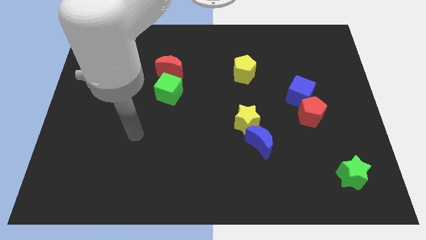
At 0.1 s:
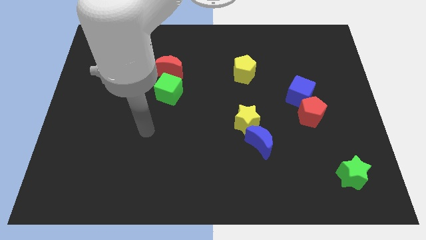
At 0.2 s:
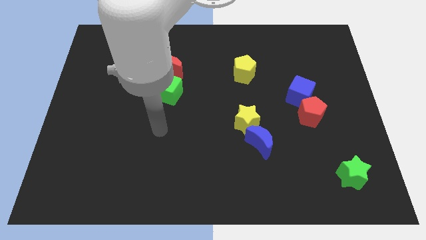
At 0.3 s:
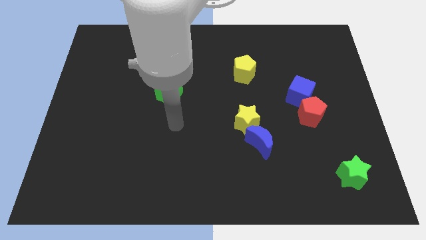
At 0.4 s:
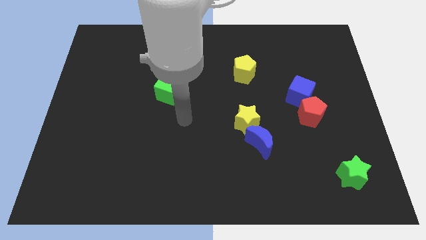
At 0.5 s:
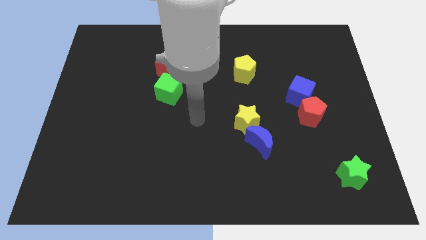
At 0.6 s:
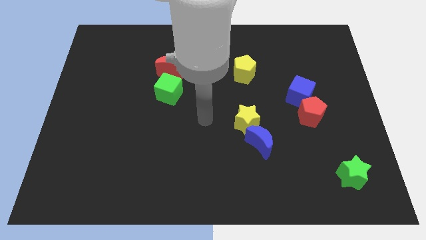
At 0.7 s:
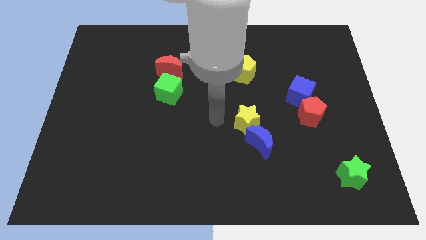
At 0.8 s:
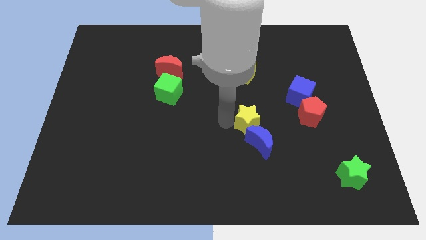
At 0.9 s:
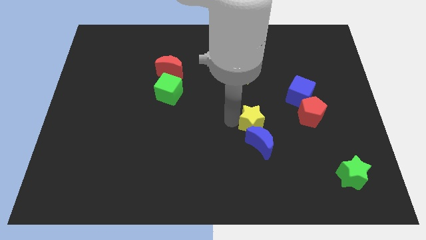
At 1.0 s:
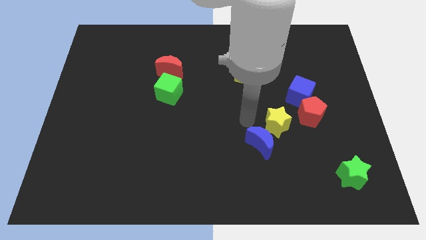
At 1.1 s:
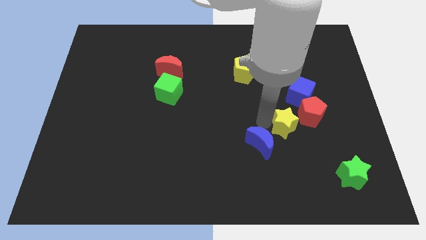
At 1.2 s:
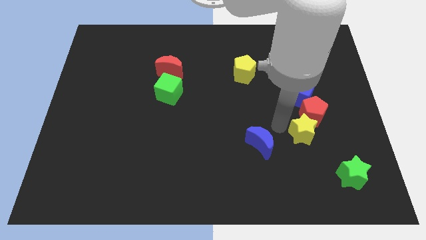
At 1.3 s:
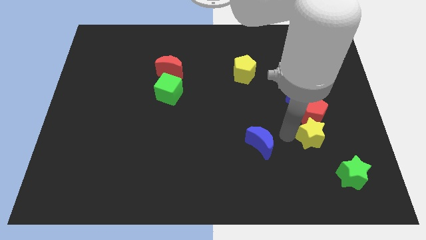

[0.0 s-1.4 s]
move the blue moon away from the yellow star

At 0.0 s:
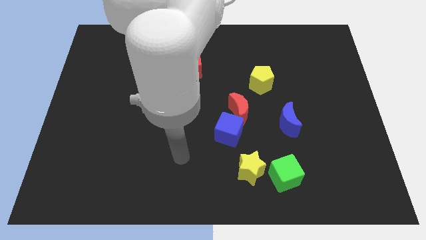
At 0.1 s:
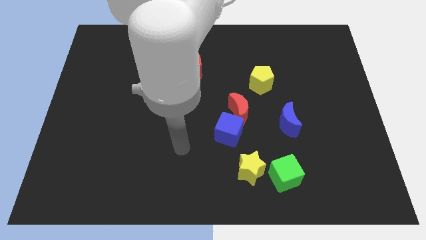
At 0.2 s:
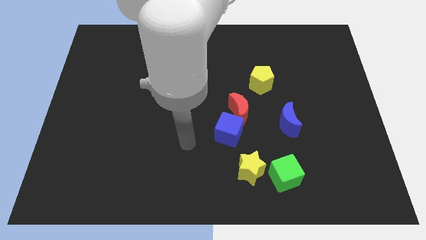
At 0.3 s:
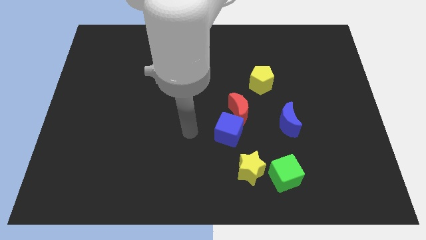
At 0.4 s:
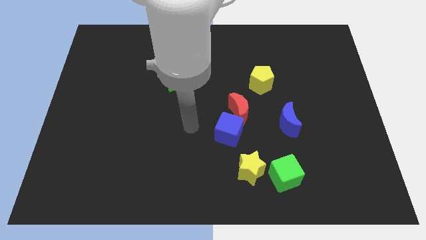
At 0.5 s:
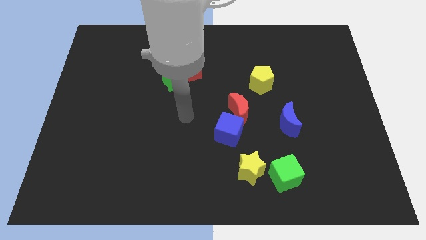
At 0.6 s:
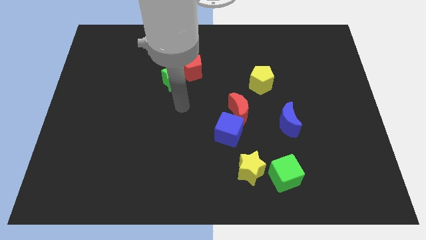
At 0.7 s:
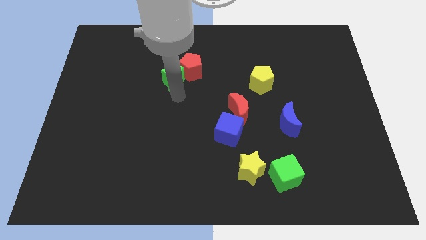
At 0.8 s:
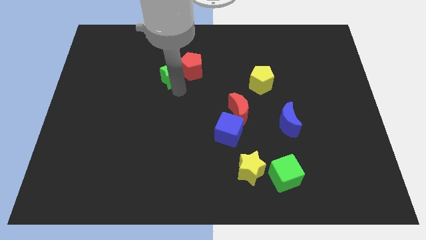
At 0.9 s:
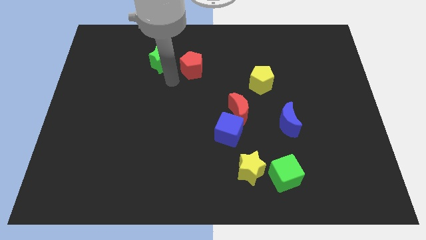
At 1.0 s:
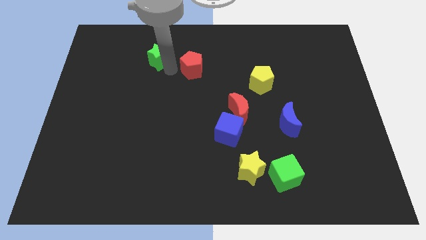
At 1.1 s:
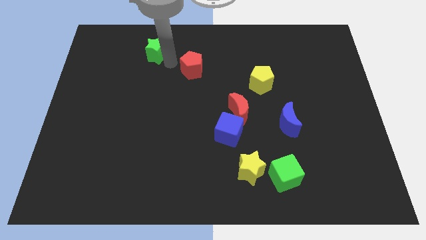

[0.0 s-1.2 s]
move the red pentagon away from the green star

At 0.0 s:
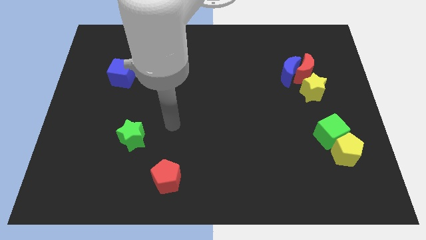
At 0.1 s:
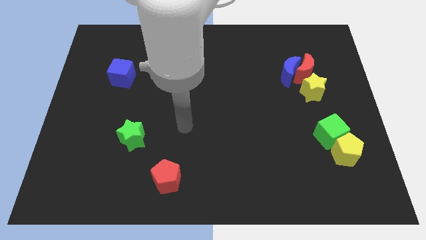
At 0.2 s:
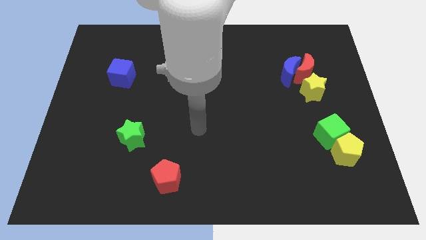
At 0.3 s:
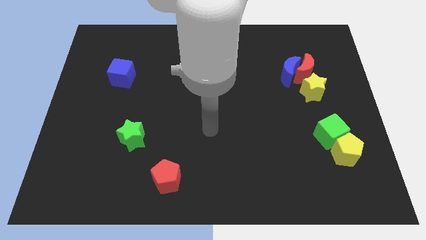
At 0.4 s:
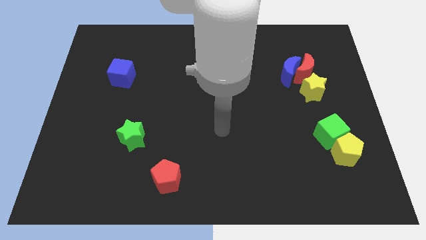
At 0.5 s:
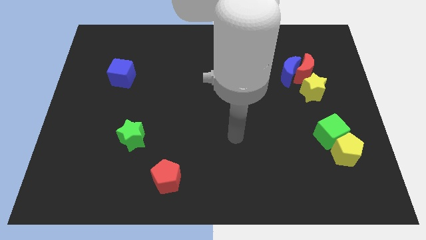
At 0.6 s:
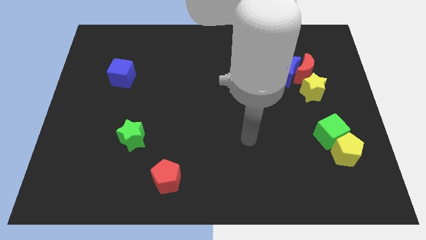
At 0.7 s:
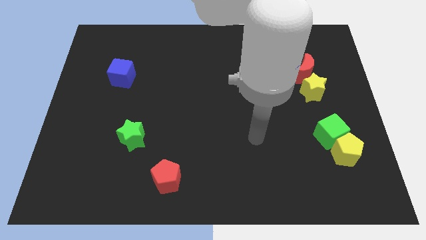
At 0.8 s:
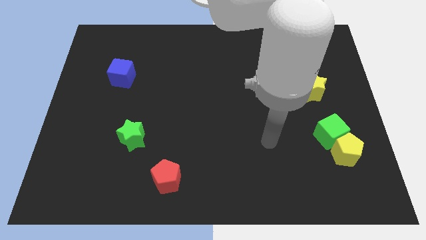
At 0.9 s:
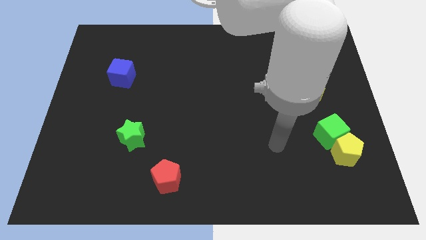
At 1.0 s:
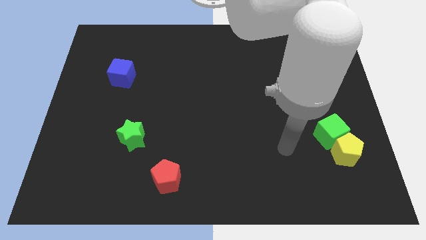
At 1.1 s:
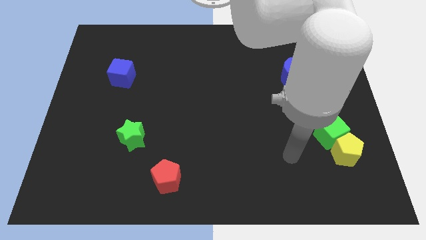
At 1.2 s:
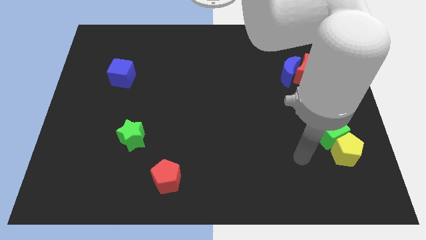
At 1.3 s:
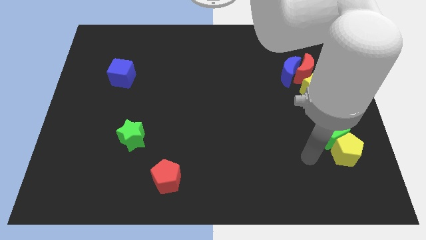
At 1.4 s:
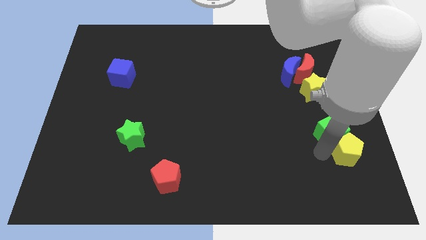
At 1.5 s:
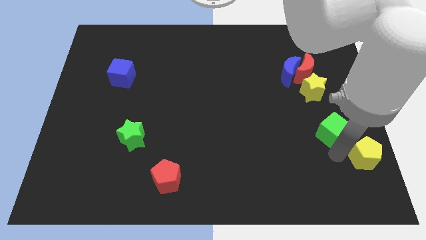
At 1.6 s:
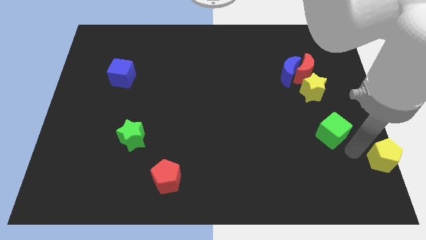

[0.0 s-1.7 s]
move the green cube away from the yellow pentagon

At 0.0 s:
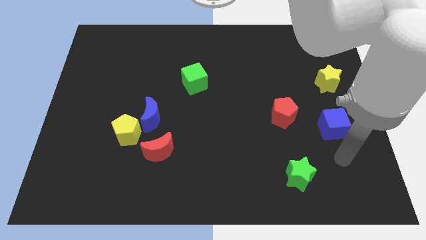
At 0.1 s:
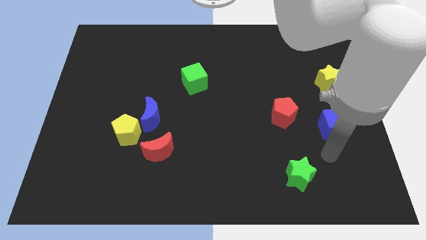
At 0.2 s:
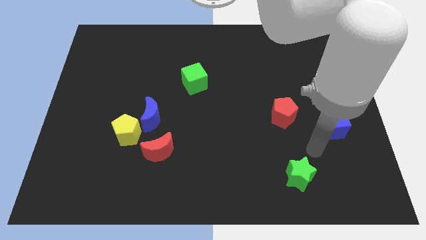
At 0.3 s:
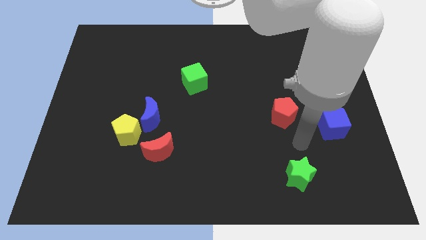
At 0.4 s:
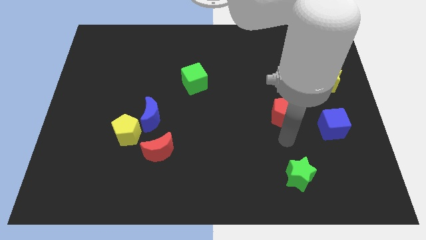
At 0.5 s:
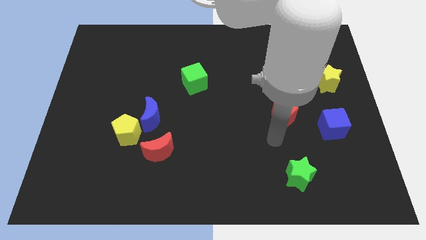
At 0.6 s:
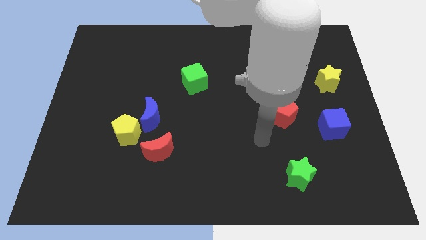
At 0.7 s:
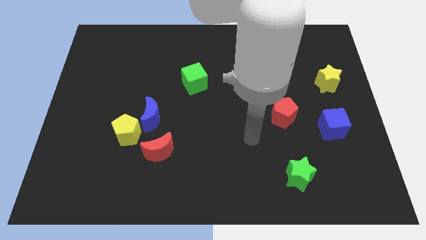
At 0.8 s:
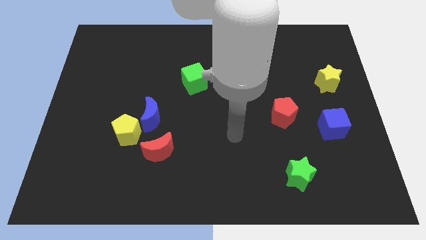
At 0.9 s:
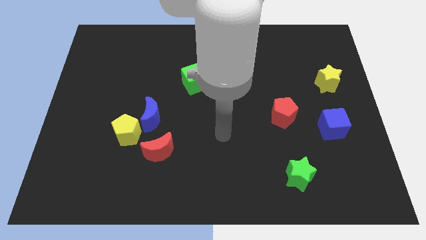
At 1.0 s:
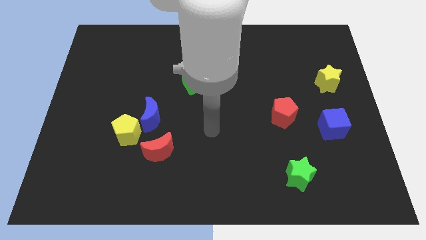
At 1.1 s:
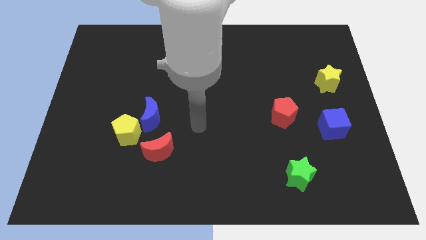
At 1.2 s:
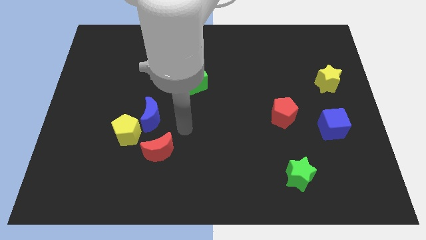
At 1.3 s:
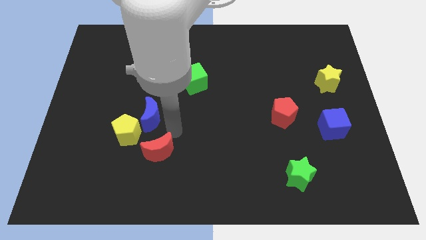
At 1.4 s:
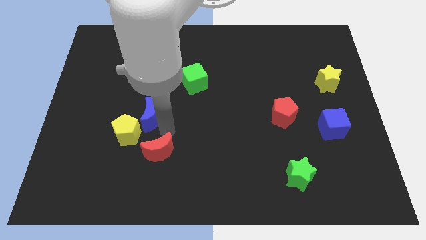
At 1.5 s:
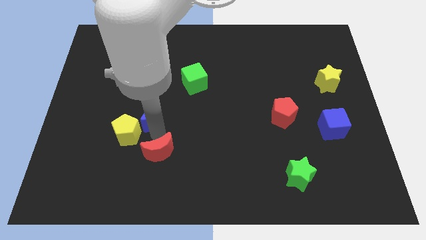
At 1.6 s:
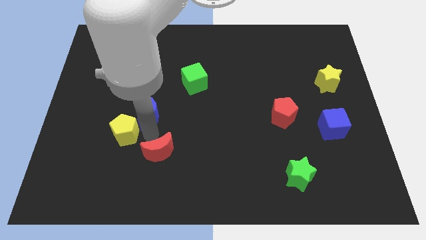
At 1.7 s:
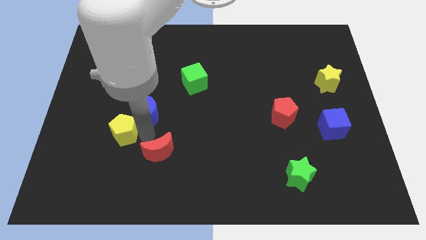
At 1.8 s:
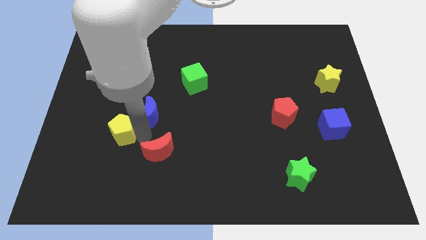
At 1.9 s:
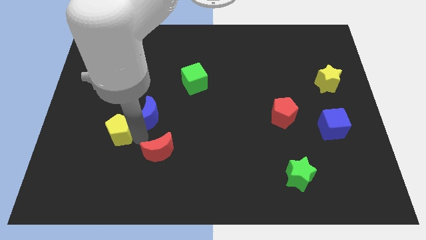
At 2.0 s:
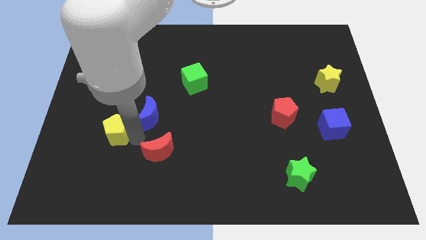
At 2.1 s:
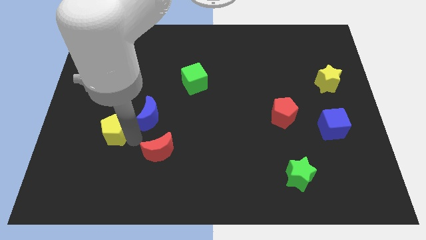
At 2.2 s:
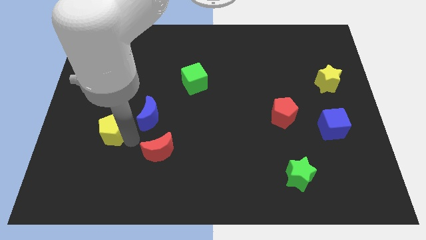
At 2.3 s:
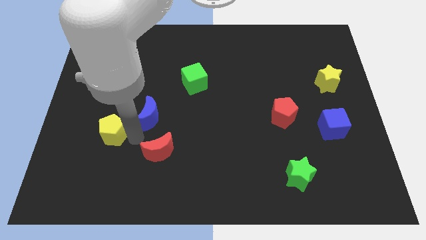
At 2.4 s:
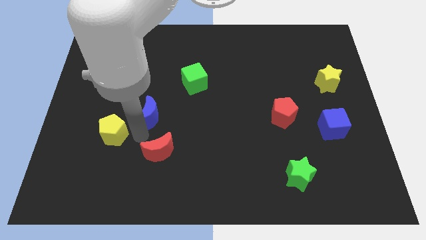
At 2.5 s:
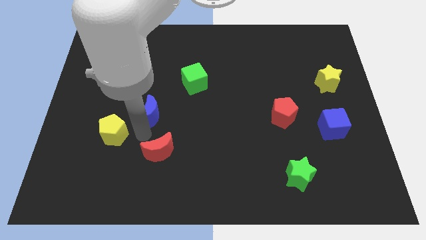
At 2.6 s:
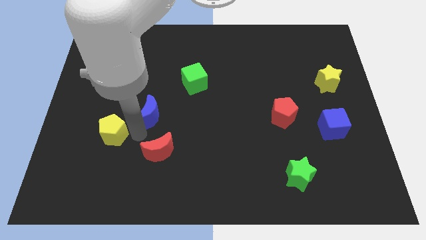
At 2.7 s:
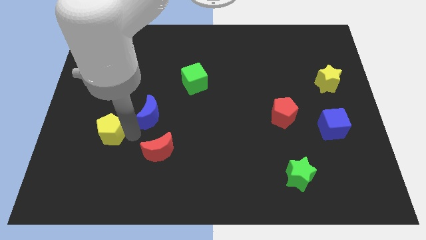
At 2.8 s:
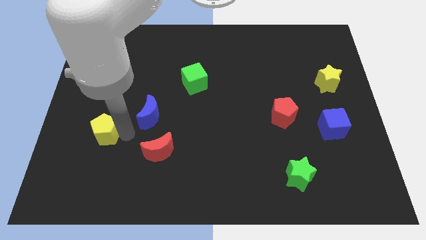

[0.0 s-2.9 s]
separate the yellow pentagon from the blue moon and red moon

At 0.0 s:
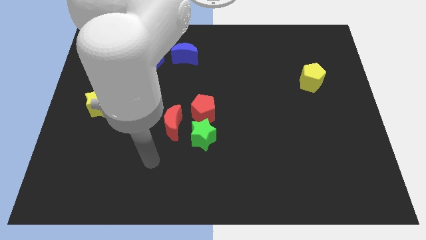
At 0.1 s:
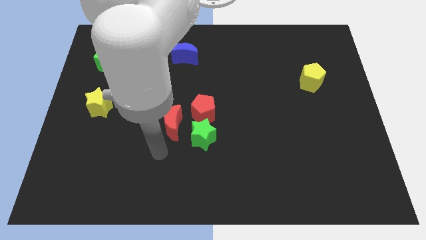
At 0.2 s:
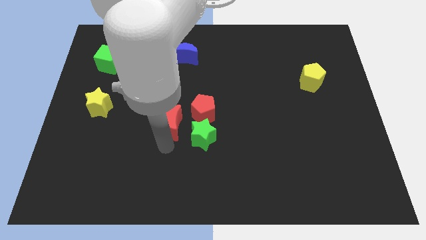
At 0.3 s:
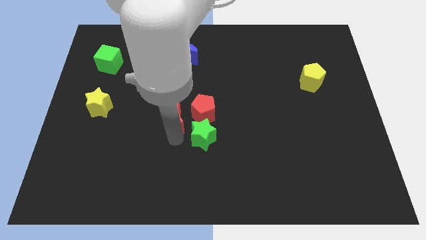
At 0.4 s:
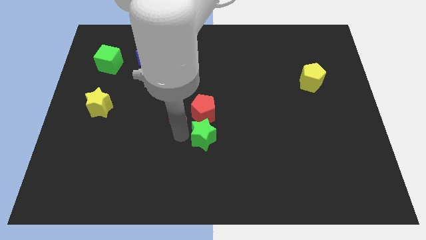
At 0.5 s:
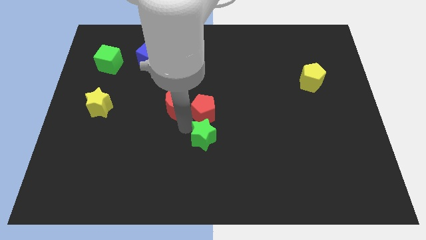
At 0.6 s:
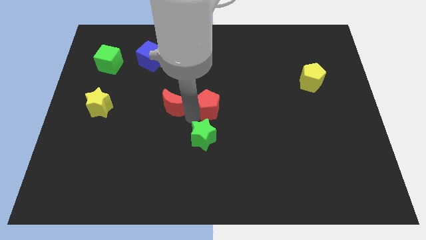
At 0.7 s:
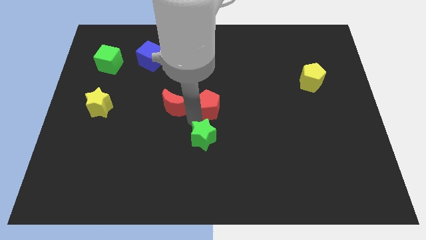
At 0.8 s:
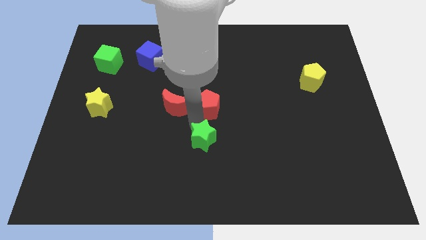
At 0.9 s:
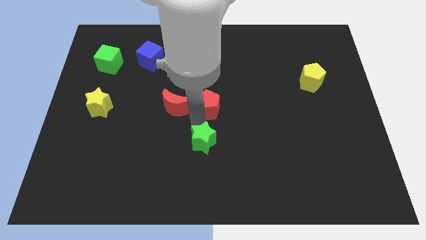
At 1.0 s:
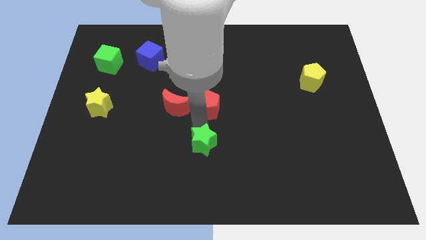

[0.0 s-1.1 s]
separate the green star from the red pentagon and red moon

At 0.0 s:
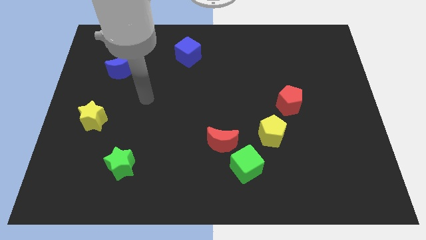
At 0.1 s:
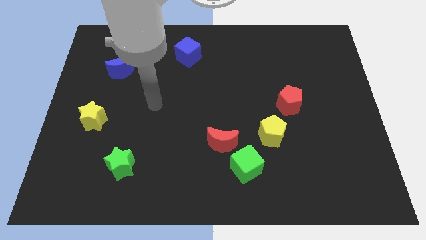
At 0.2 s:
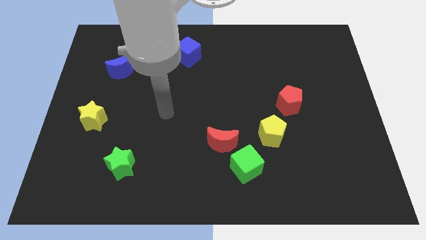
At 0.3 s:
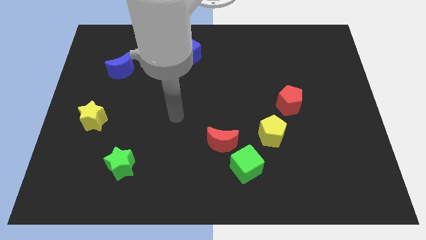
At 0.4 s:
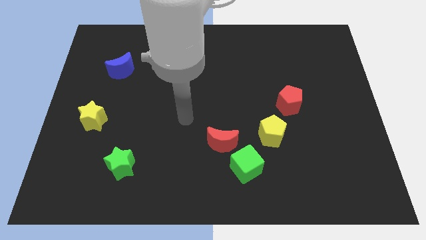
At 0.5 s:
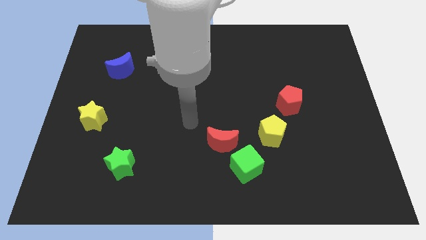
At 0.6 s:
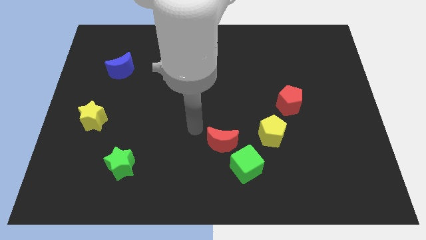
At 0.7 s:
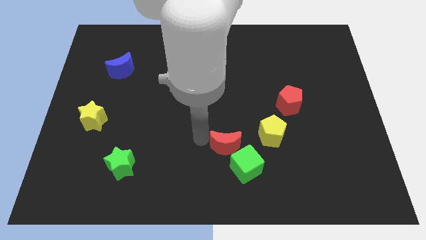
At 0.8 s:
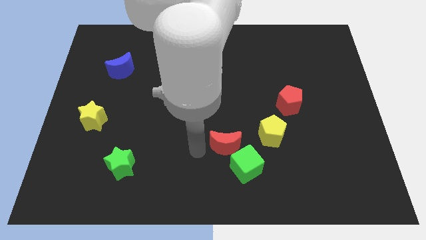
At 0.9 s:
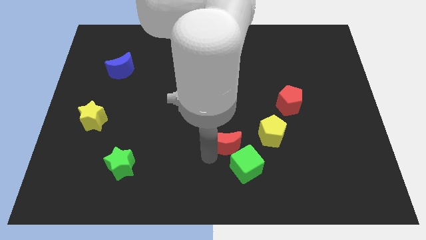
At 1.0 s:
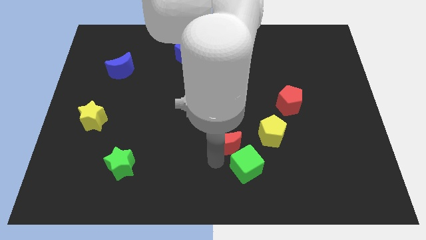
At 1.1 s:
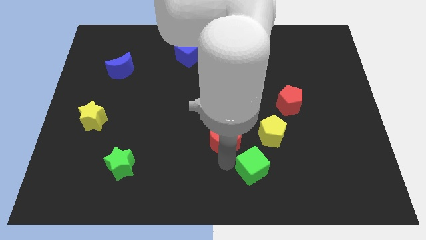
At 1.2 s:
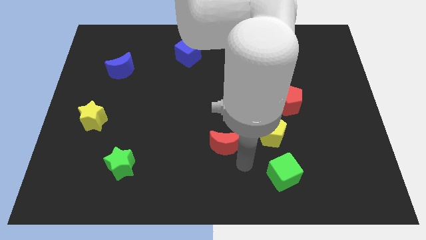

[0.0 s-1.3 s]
separate the red moon from the green cube
